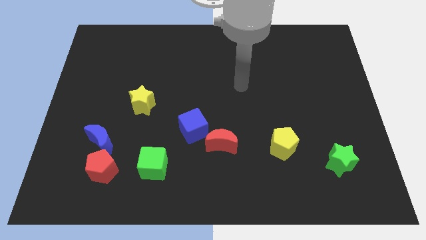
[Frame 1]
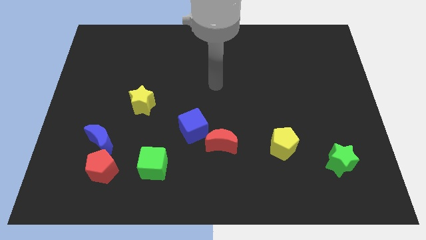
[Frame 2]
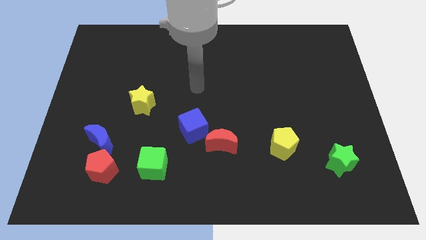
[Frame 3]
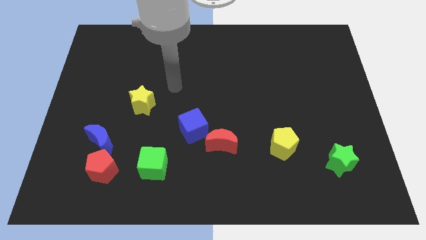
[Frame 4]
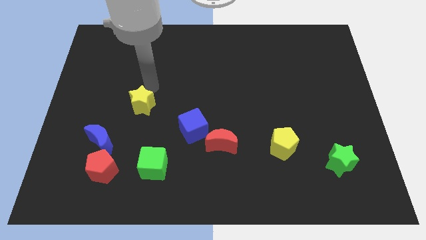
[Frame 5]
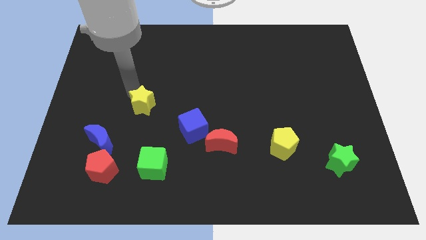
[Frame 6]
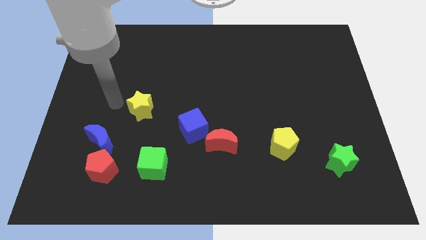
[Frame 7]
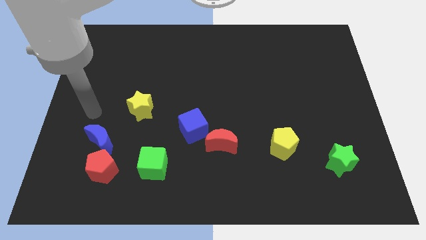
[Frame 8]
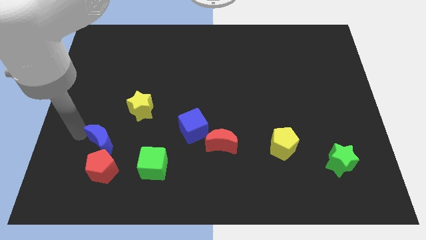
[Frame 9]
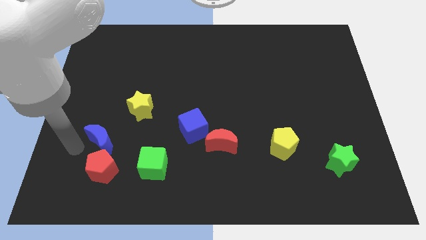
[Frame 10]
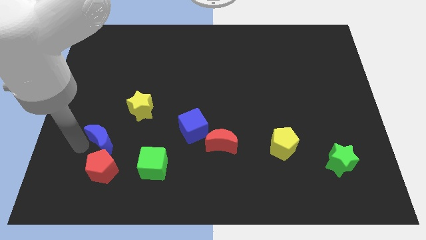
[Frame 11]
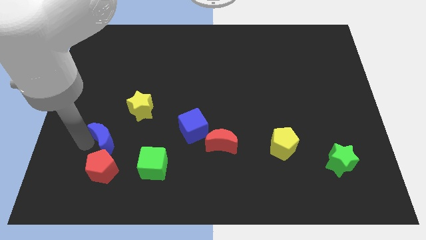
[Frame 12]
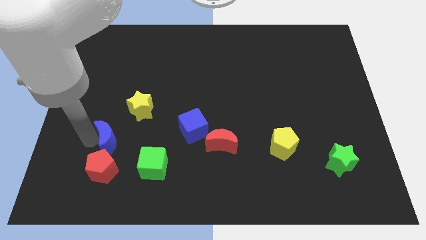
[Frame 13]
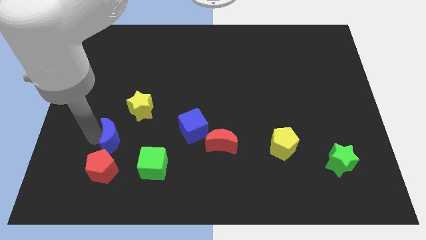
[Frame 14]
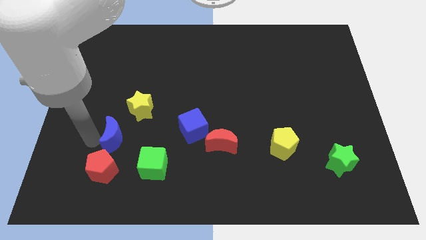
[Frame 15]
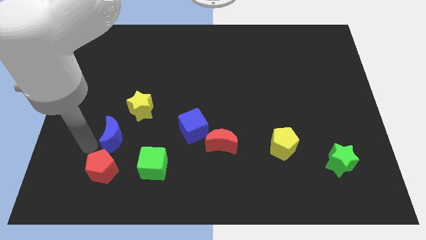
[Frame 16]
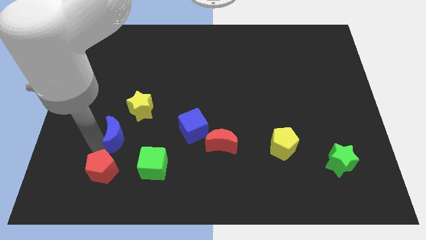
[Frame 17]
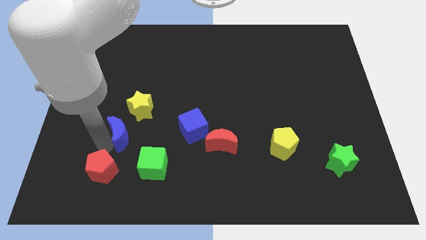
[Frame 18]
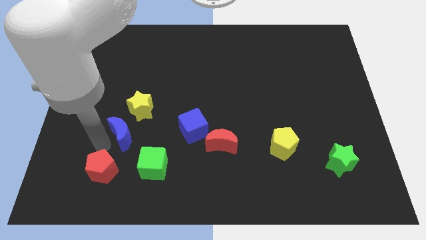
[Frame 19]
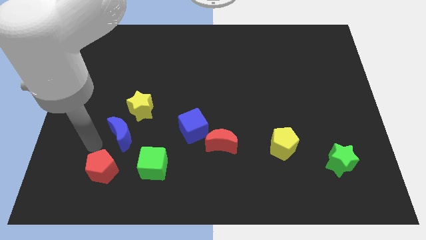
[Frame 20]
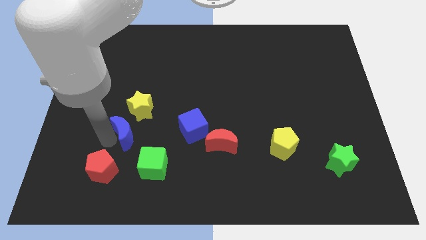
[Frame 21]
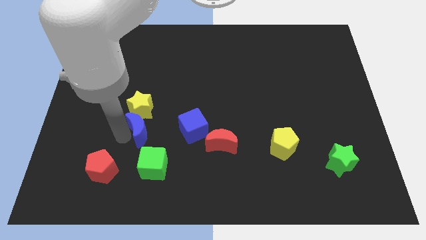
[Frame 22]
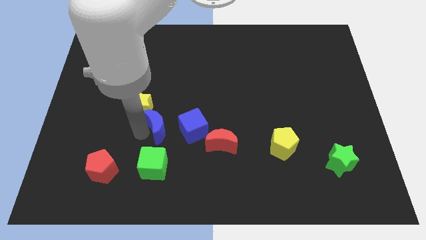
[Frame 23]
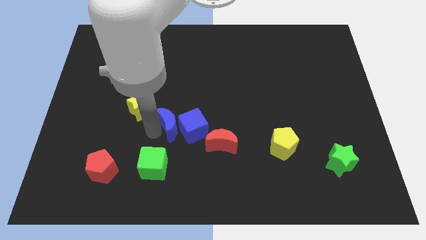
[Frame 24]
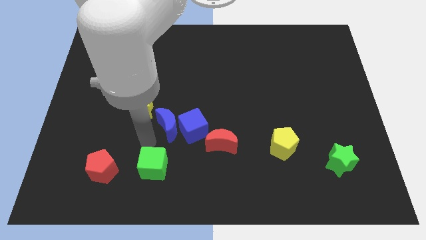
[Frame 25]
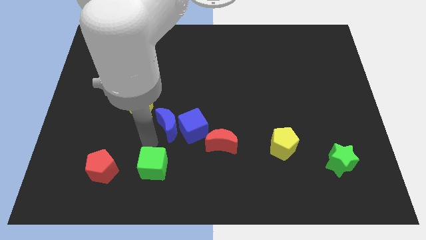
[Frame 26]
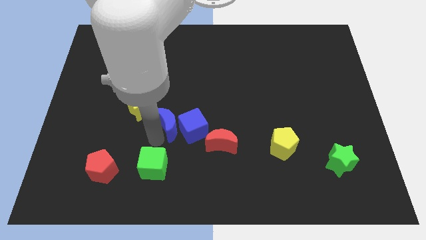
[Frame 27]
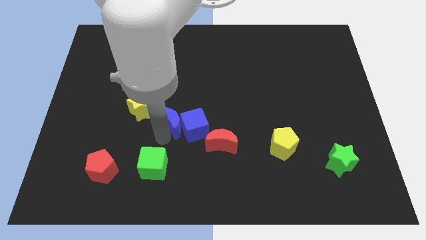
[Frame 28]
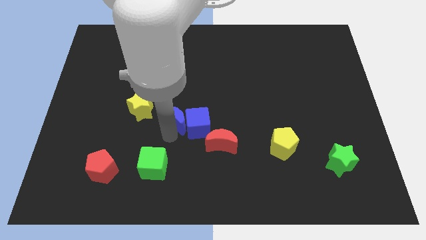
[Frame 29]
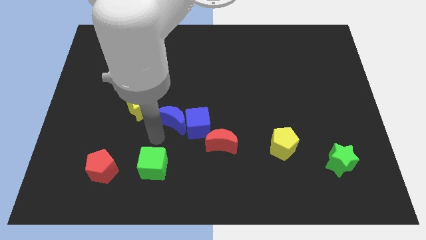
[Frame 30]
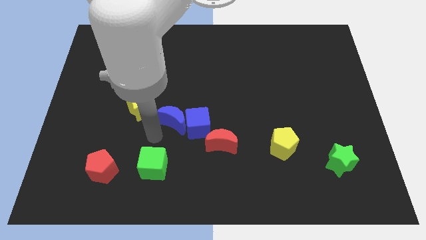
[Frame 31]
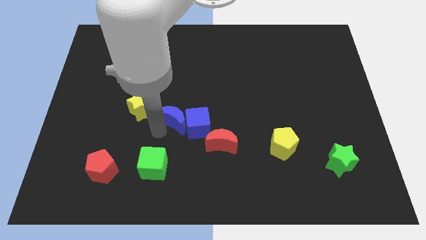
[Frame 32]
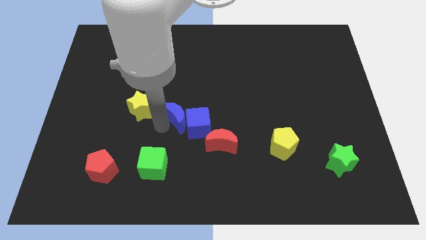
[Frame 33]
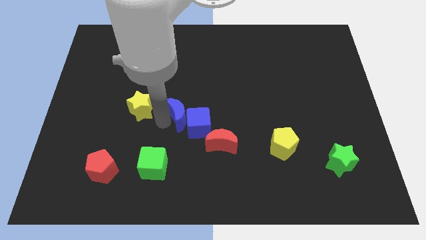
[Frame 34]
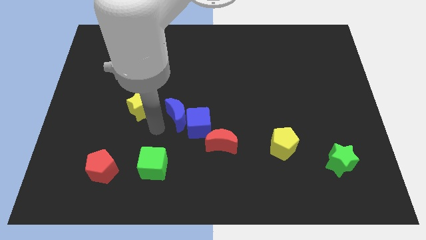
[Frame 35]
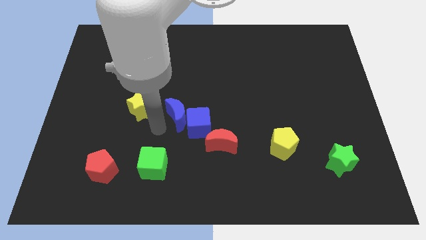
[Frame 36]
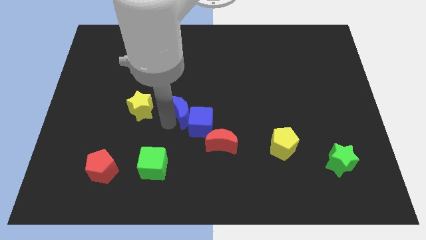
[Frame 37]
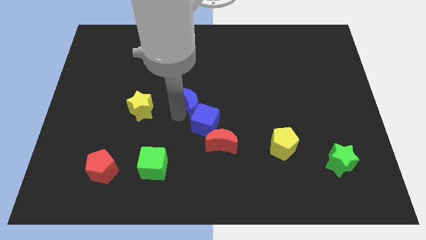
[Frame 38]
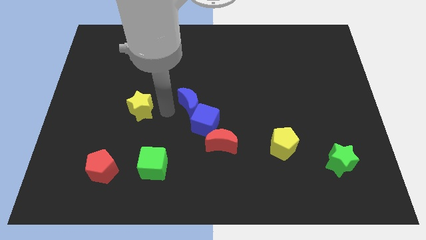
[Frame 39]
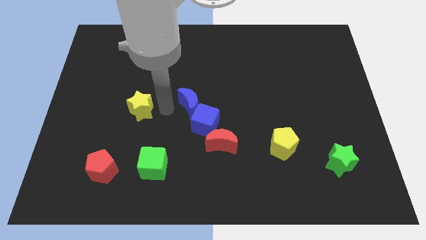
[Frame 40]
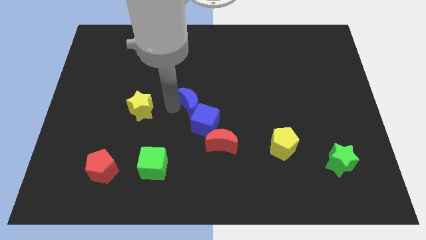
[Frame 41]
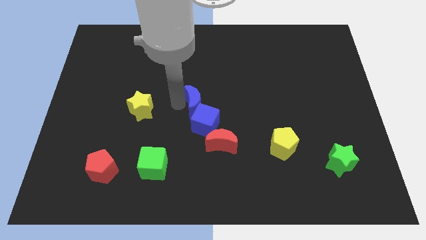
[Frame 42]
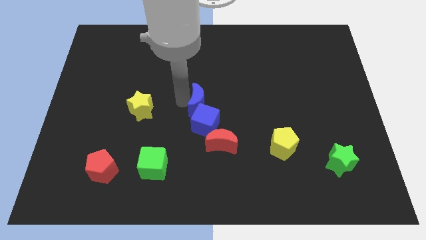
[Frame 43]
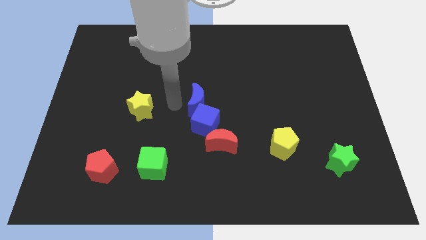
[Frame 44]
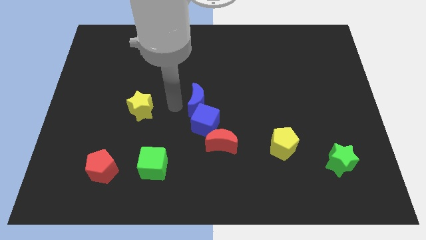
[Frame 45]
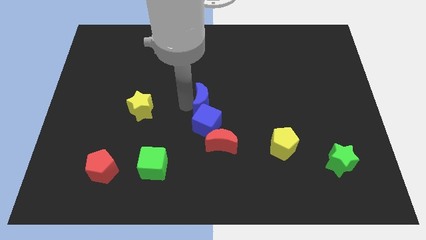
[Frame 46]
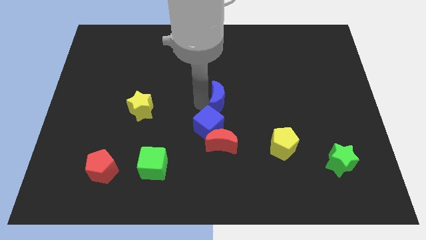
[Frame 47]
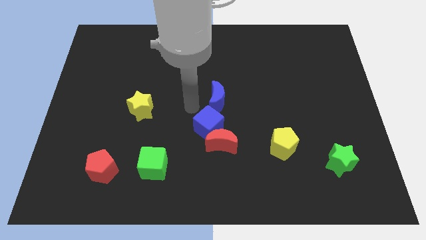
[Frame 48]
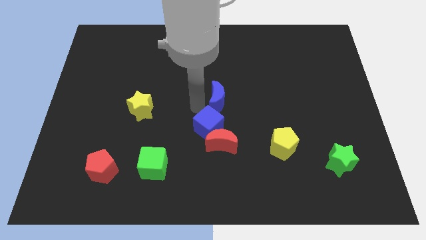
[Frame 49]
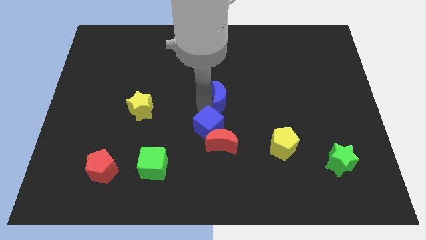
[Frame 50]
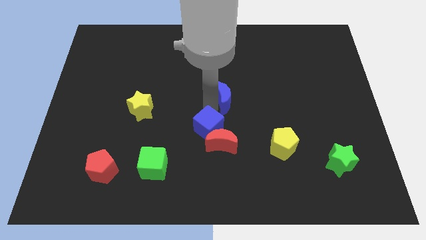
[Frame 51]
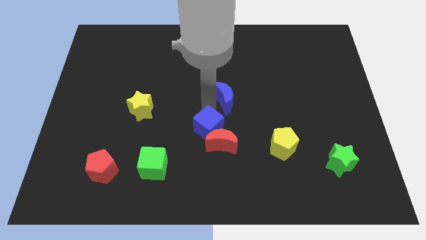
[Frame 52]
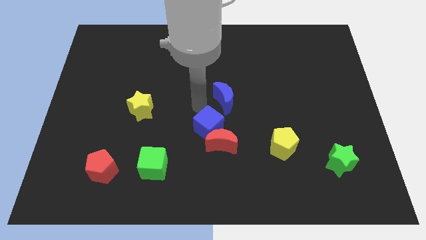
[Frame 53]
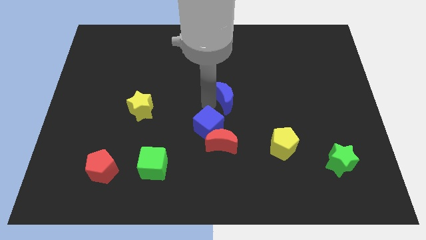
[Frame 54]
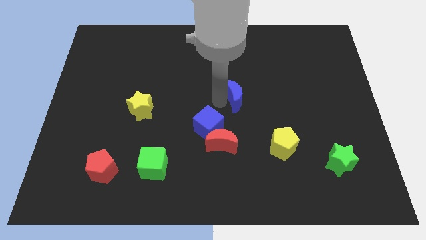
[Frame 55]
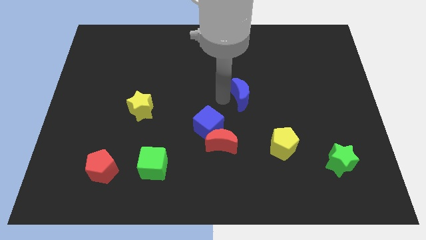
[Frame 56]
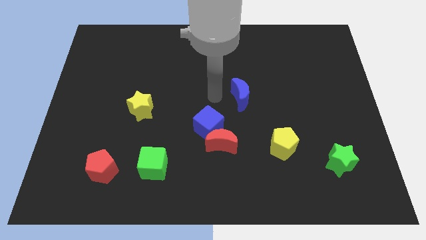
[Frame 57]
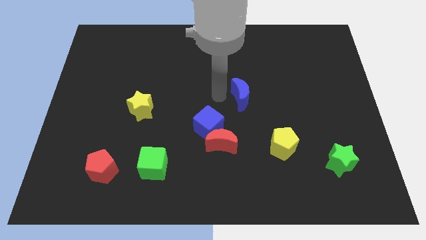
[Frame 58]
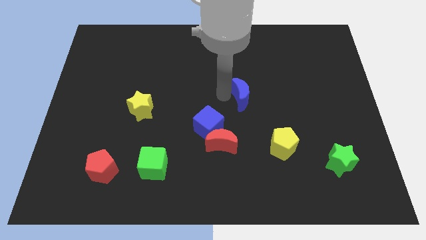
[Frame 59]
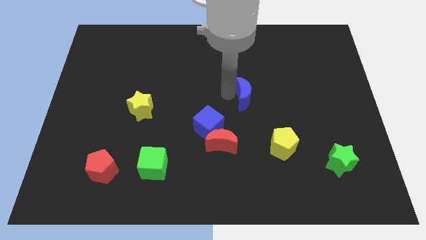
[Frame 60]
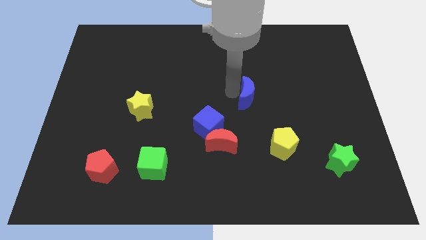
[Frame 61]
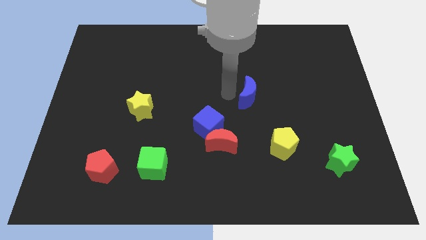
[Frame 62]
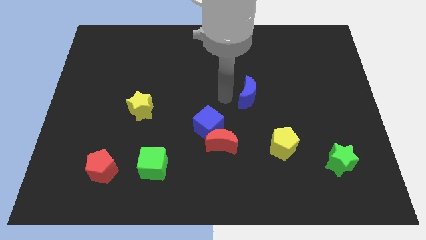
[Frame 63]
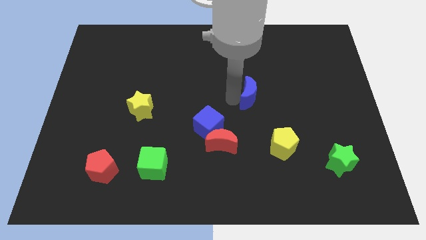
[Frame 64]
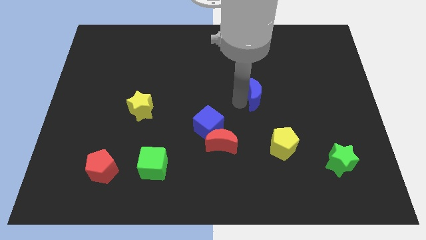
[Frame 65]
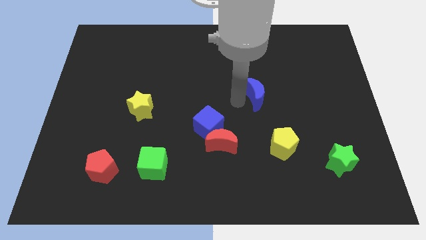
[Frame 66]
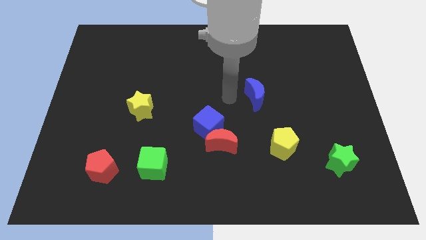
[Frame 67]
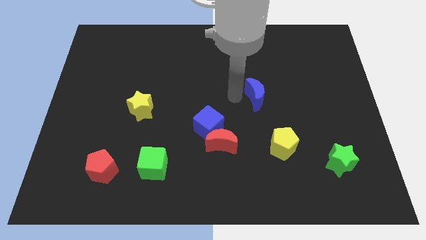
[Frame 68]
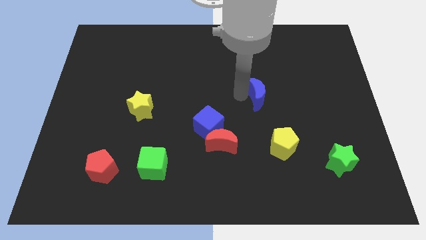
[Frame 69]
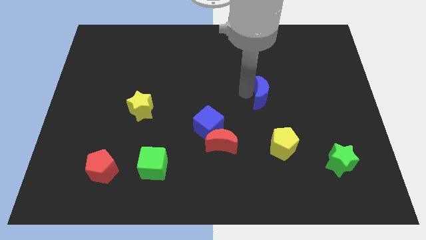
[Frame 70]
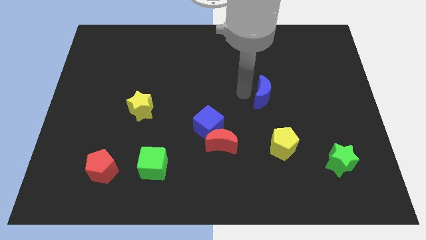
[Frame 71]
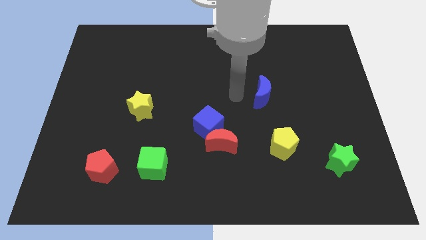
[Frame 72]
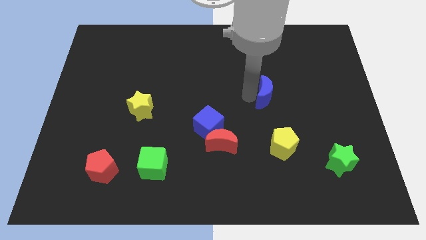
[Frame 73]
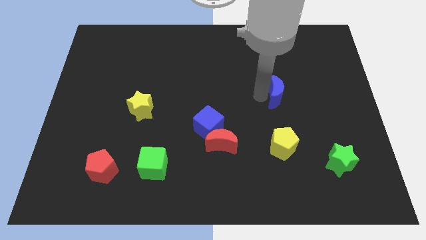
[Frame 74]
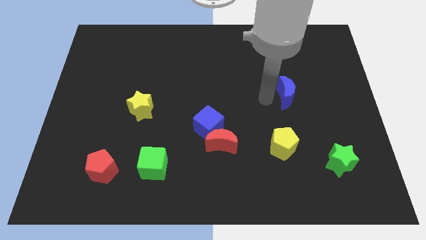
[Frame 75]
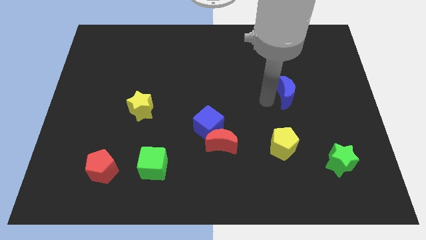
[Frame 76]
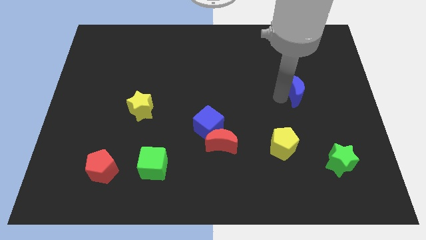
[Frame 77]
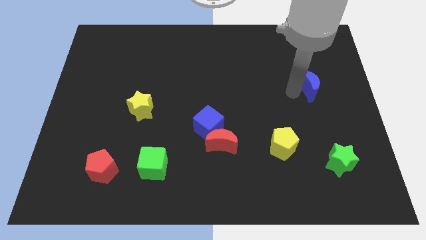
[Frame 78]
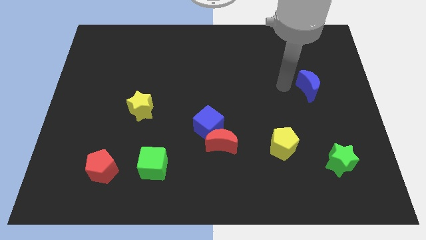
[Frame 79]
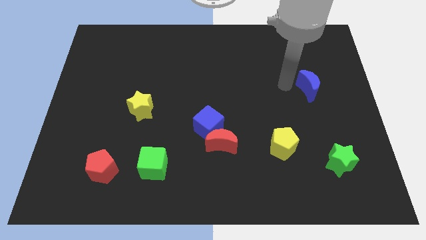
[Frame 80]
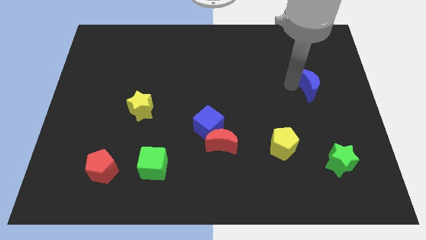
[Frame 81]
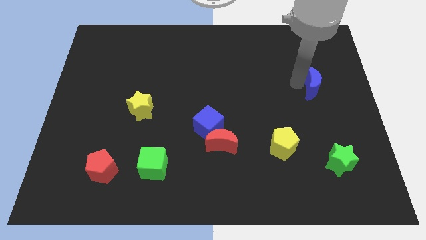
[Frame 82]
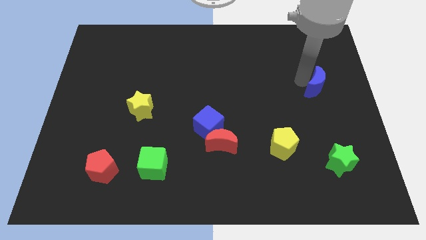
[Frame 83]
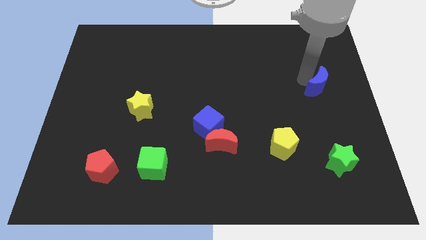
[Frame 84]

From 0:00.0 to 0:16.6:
put the blue moon to the right side
